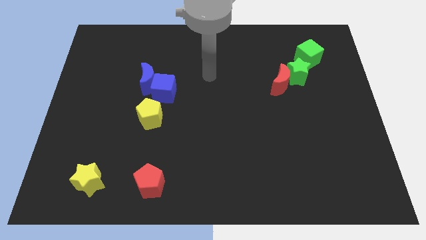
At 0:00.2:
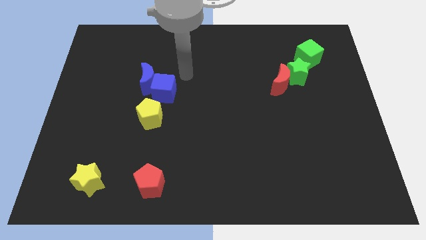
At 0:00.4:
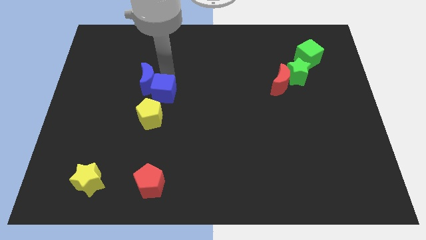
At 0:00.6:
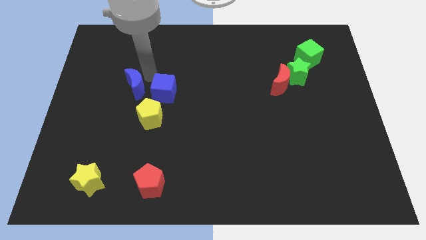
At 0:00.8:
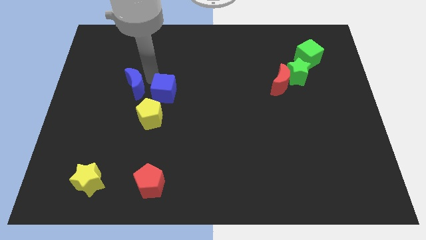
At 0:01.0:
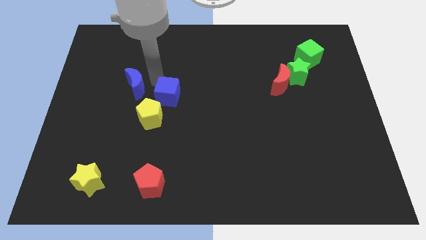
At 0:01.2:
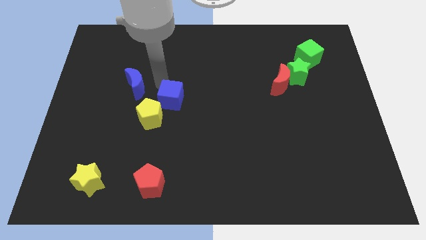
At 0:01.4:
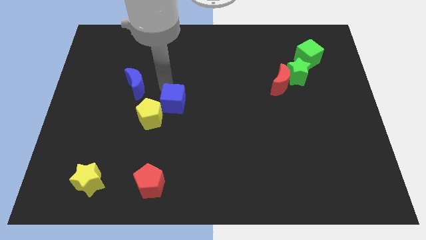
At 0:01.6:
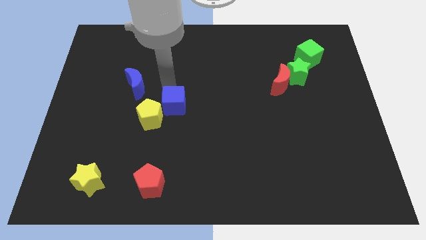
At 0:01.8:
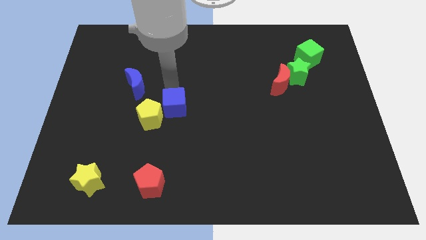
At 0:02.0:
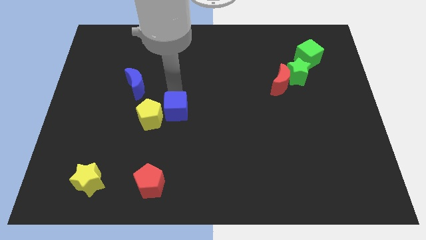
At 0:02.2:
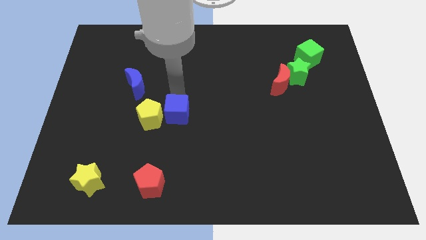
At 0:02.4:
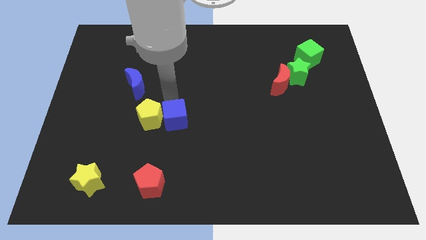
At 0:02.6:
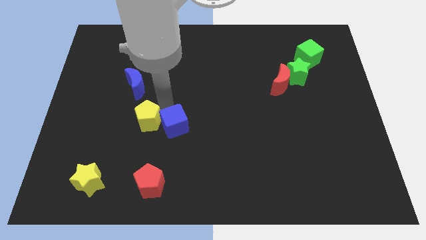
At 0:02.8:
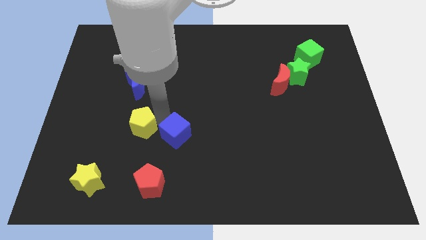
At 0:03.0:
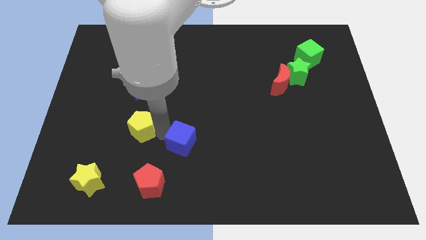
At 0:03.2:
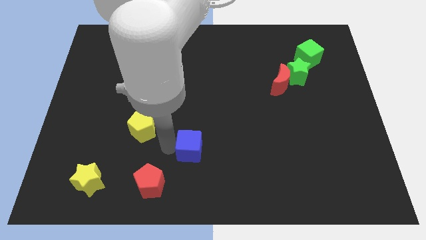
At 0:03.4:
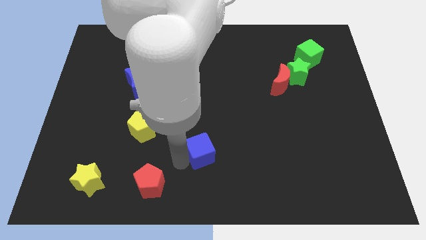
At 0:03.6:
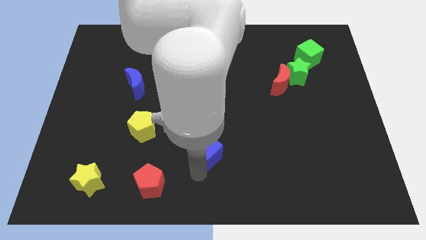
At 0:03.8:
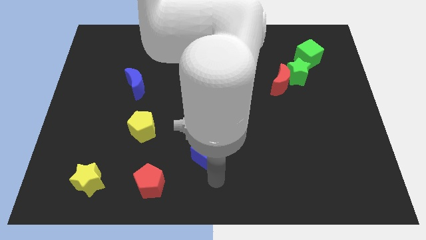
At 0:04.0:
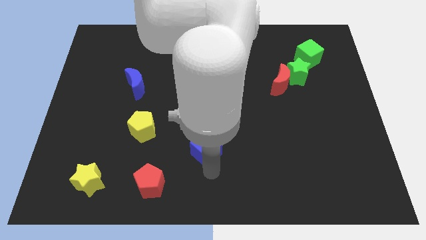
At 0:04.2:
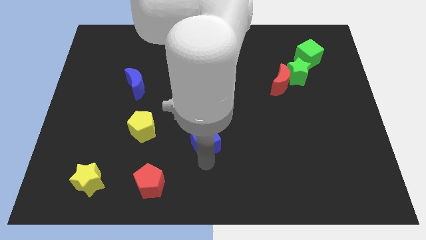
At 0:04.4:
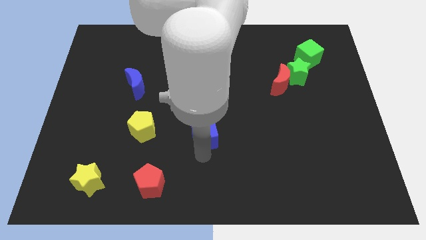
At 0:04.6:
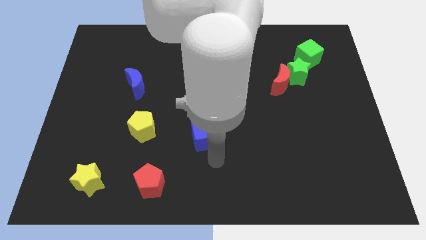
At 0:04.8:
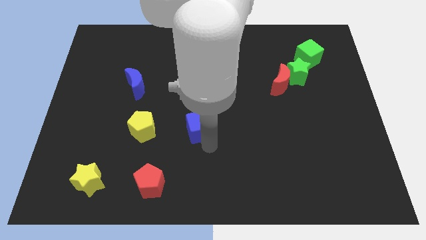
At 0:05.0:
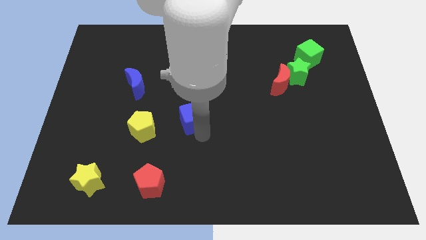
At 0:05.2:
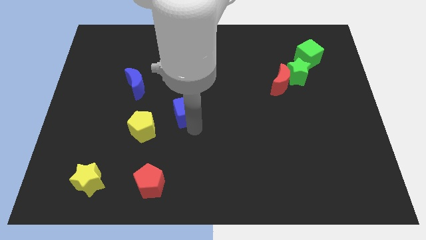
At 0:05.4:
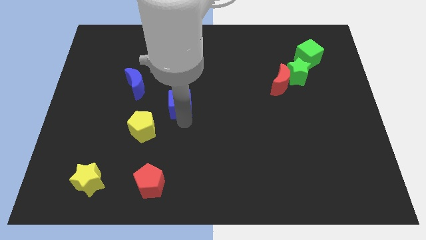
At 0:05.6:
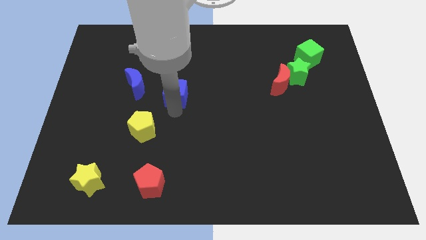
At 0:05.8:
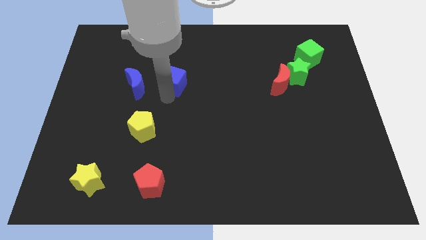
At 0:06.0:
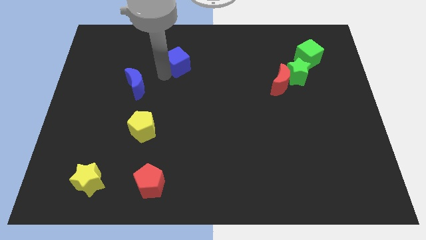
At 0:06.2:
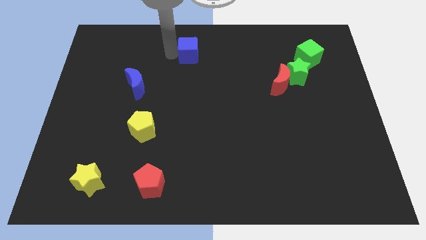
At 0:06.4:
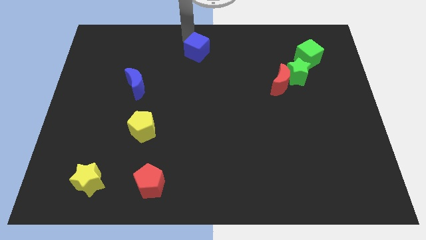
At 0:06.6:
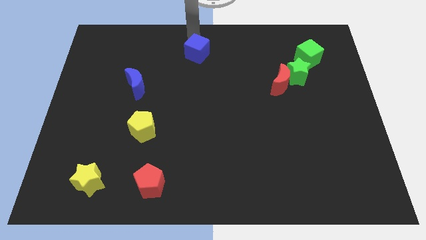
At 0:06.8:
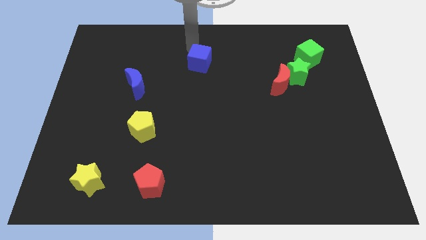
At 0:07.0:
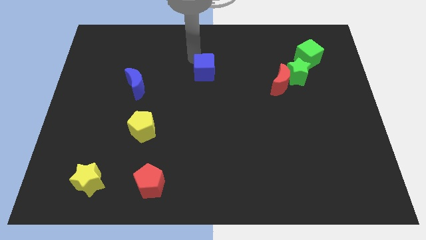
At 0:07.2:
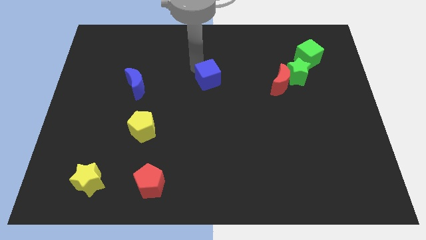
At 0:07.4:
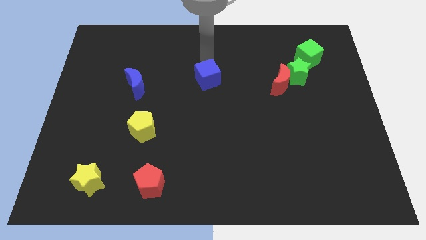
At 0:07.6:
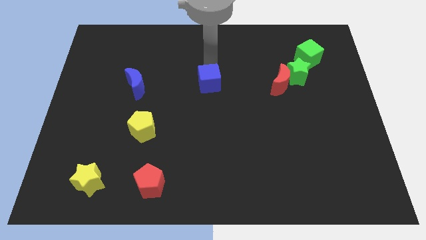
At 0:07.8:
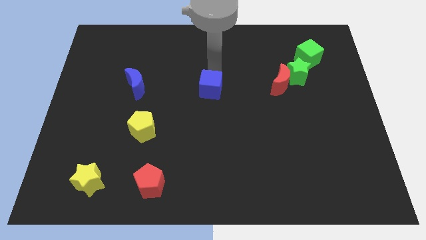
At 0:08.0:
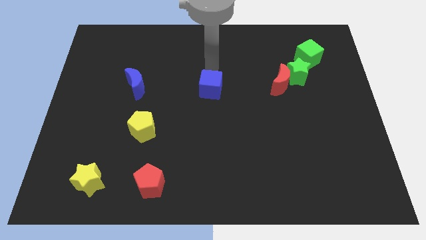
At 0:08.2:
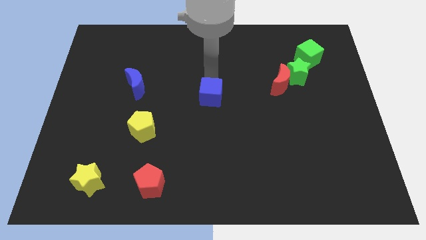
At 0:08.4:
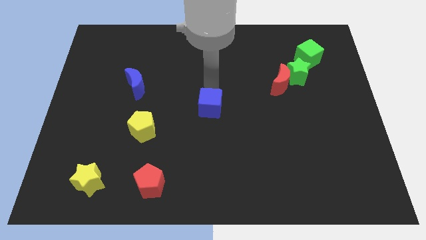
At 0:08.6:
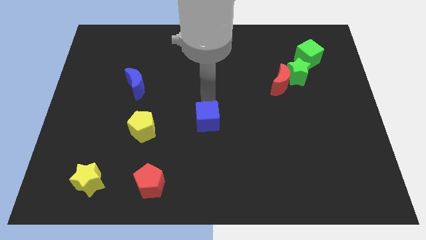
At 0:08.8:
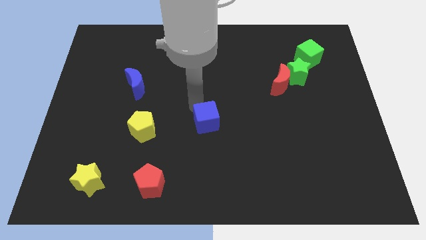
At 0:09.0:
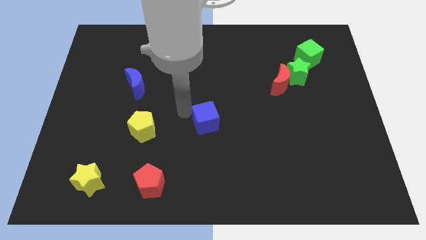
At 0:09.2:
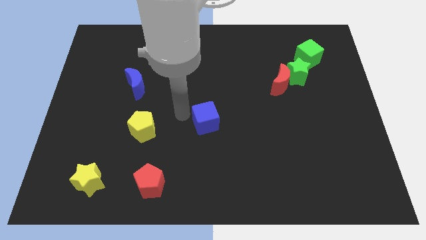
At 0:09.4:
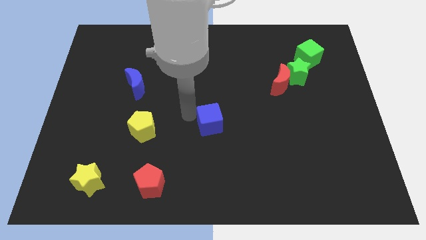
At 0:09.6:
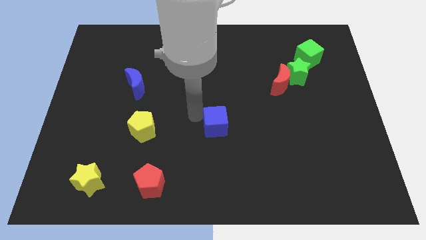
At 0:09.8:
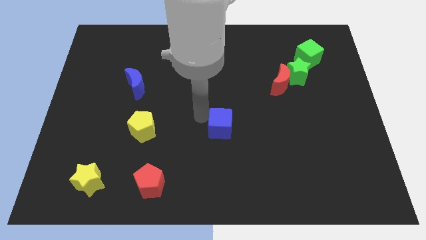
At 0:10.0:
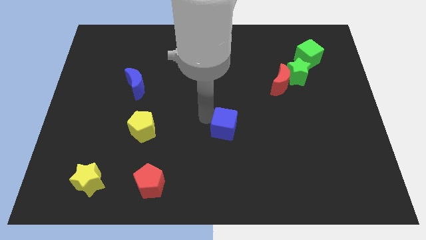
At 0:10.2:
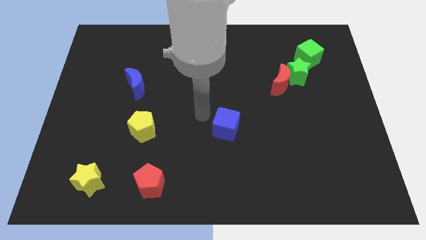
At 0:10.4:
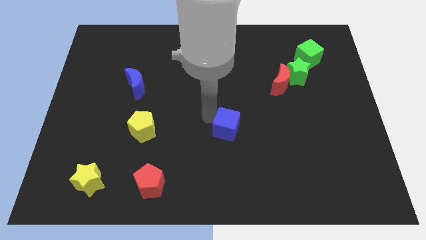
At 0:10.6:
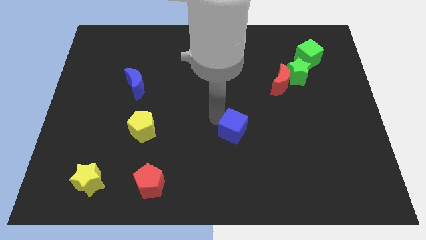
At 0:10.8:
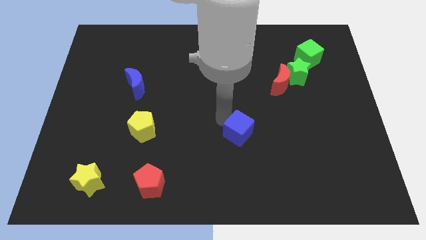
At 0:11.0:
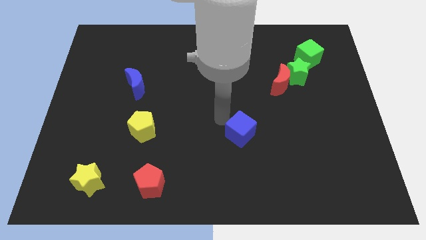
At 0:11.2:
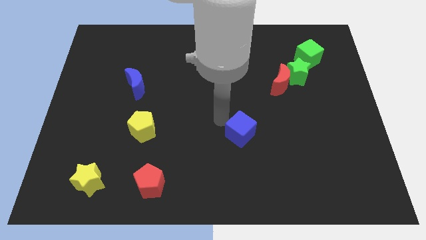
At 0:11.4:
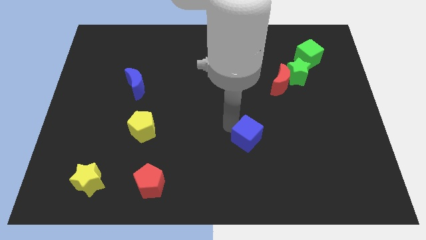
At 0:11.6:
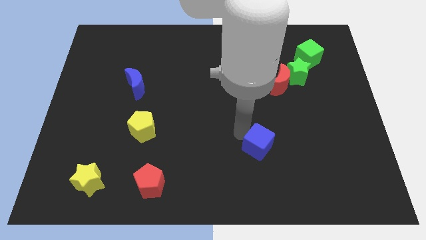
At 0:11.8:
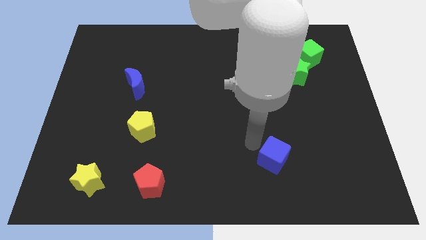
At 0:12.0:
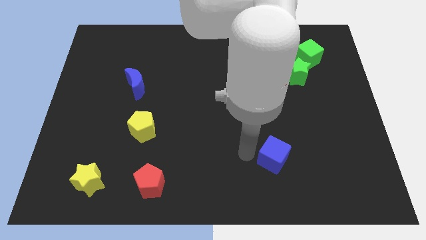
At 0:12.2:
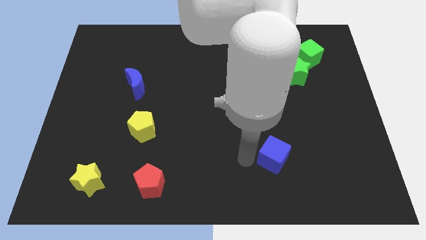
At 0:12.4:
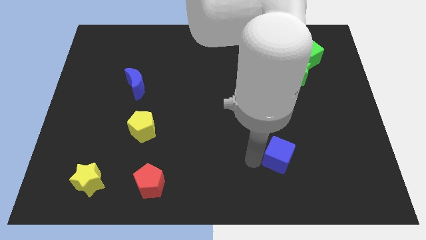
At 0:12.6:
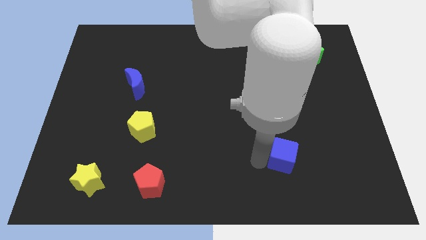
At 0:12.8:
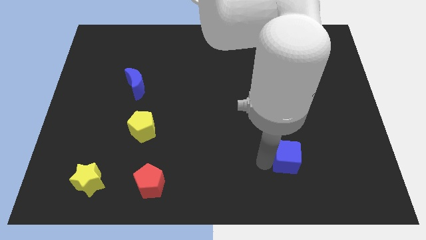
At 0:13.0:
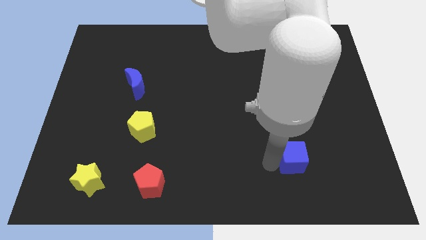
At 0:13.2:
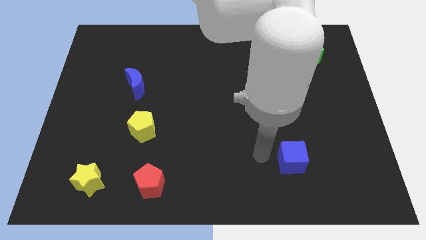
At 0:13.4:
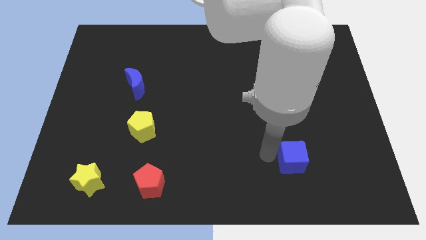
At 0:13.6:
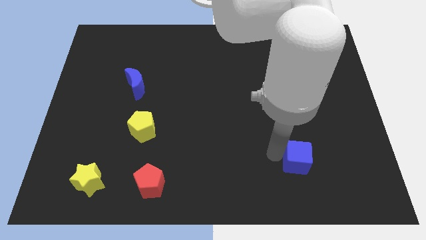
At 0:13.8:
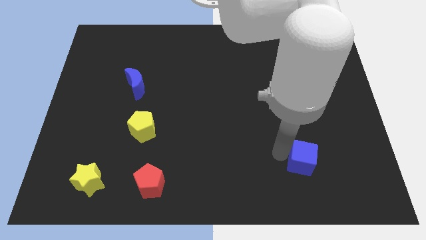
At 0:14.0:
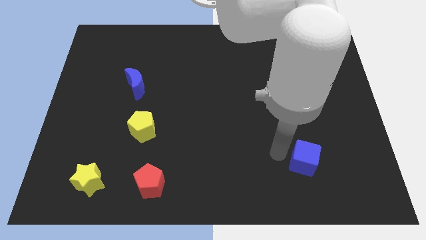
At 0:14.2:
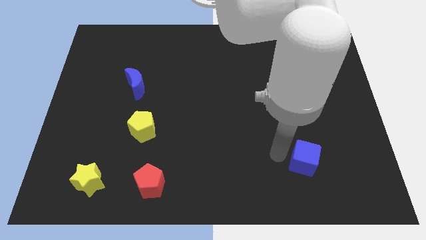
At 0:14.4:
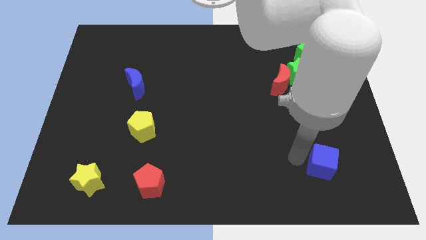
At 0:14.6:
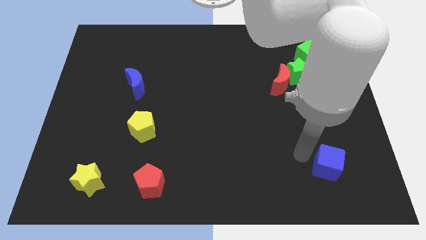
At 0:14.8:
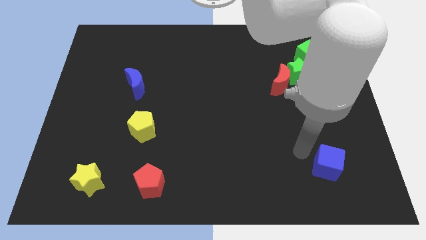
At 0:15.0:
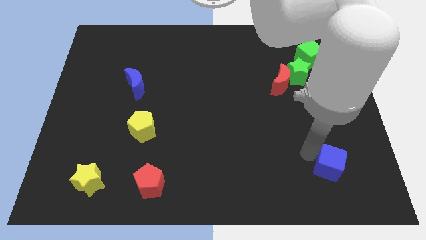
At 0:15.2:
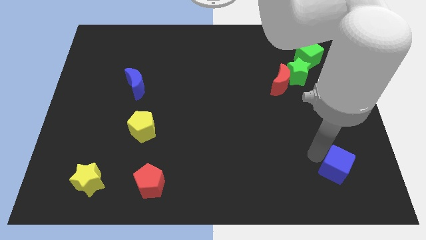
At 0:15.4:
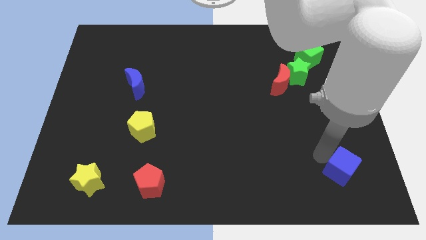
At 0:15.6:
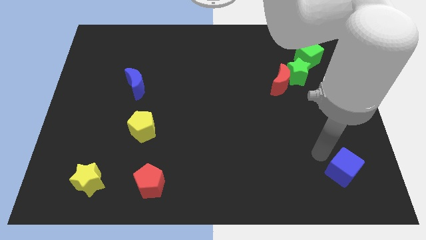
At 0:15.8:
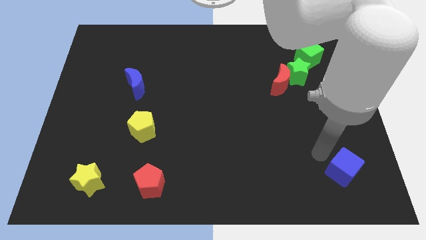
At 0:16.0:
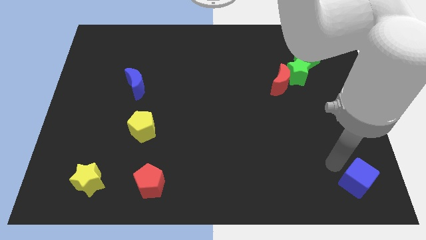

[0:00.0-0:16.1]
slide the blue cube to the lower right corner

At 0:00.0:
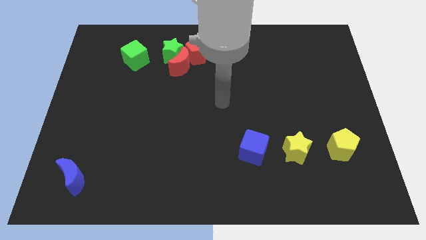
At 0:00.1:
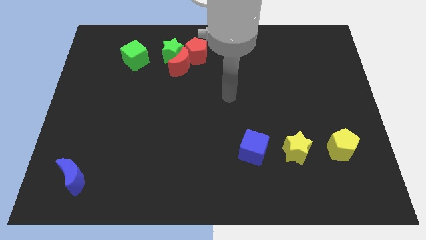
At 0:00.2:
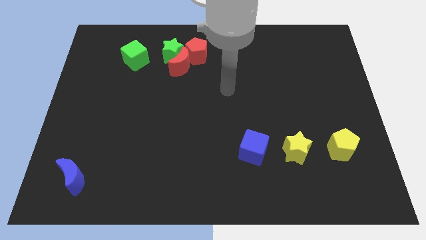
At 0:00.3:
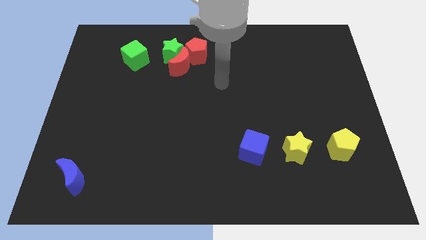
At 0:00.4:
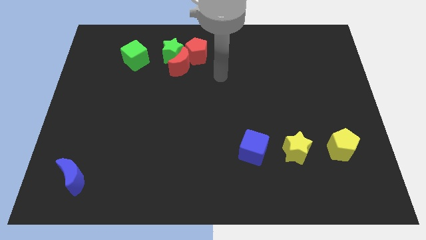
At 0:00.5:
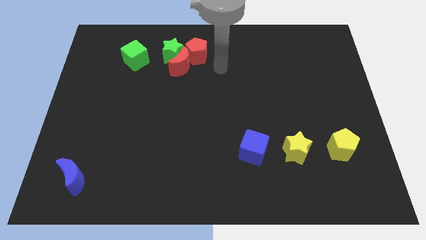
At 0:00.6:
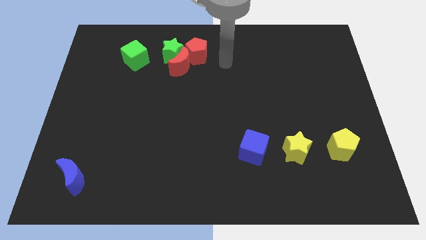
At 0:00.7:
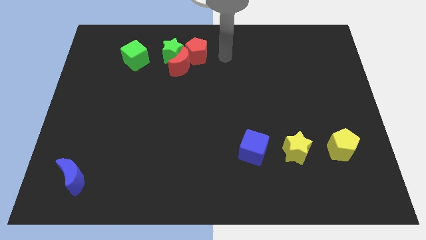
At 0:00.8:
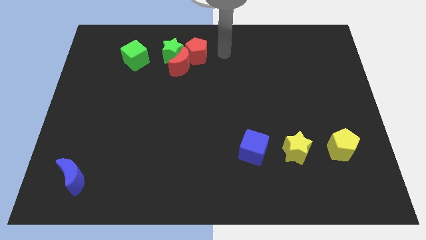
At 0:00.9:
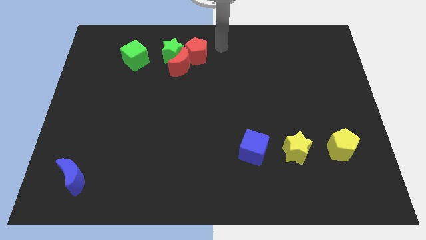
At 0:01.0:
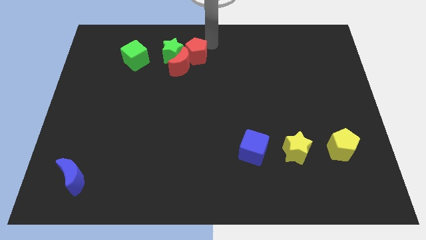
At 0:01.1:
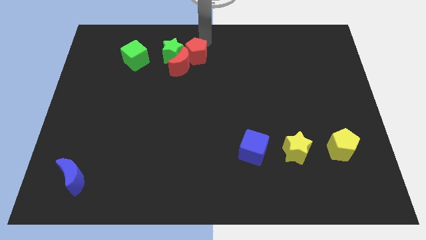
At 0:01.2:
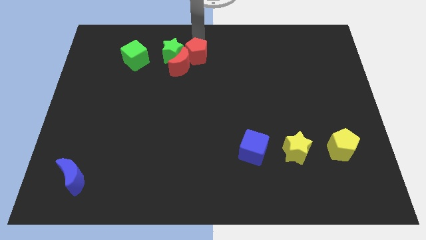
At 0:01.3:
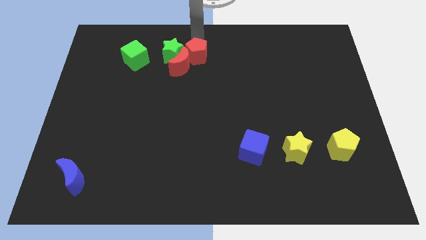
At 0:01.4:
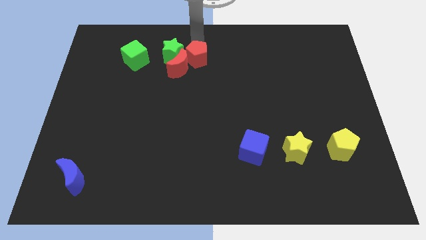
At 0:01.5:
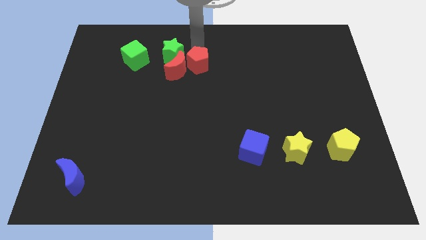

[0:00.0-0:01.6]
move the red pentagon to the middle of the board
